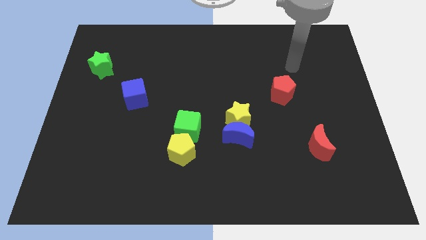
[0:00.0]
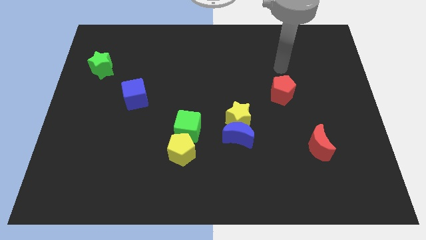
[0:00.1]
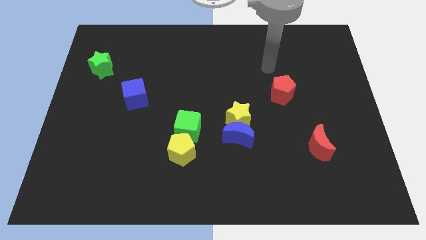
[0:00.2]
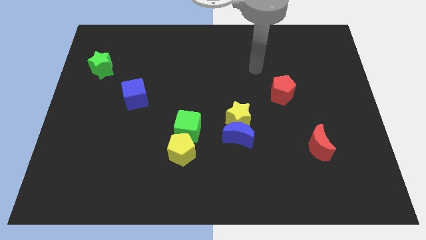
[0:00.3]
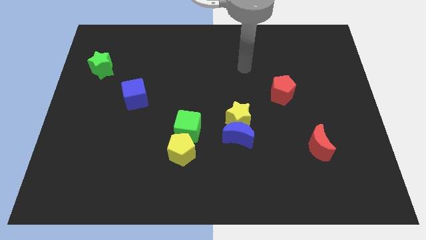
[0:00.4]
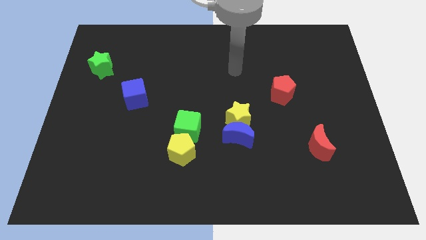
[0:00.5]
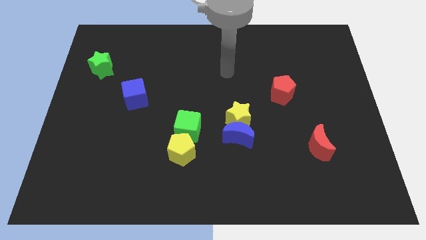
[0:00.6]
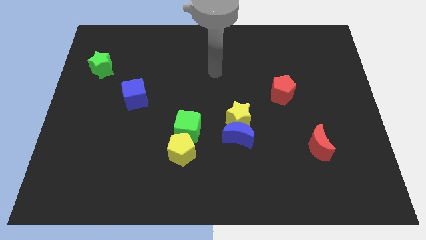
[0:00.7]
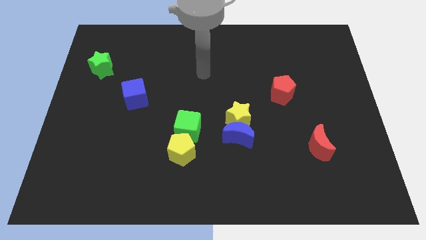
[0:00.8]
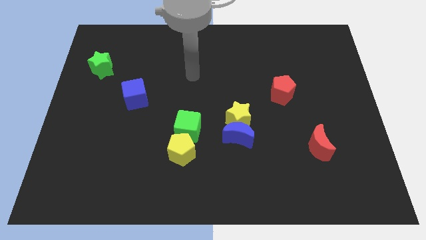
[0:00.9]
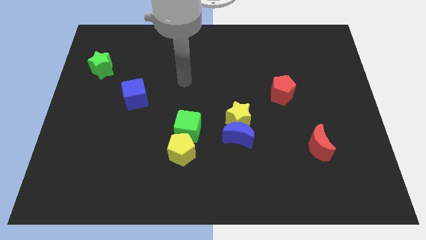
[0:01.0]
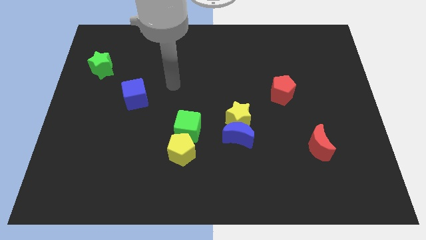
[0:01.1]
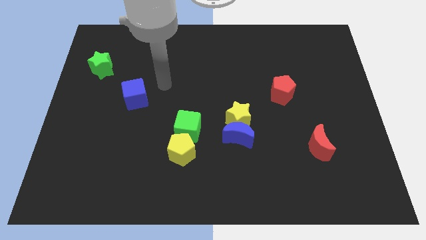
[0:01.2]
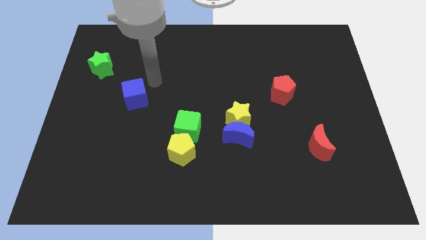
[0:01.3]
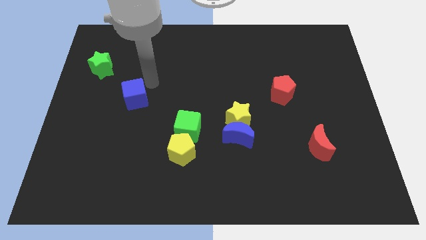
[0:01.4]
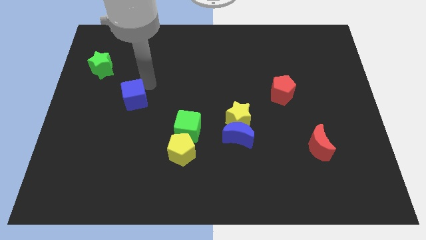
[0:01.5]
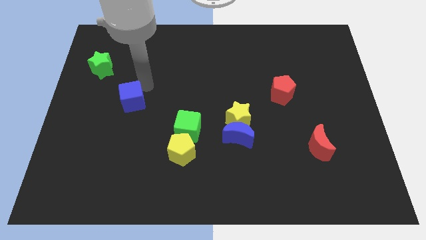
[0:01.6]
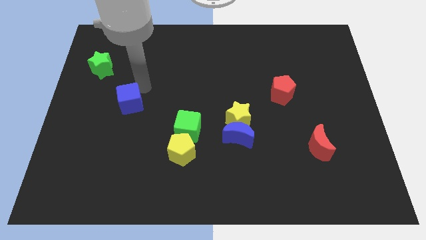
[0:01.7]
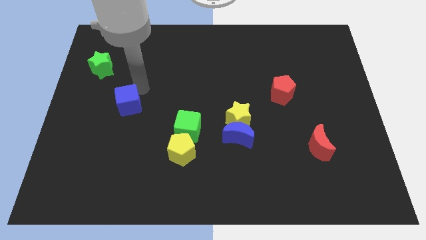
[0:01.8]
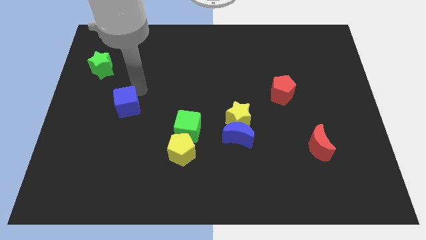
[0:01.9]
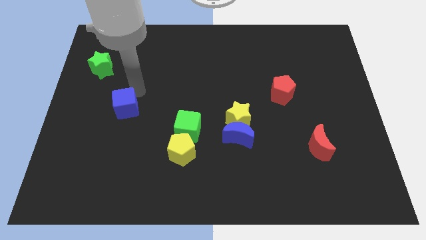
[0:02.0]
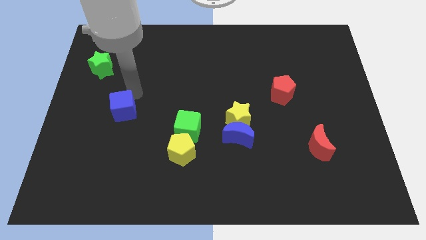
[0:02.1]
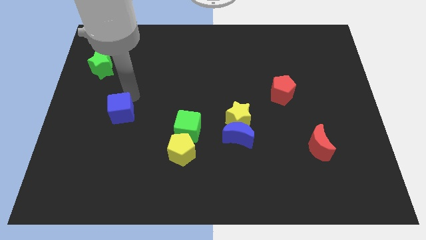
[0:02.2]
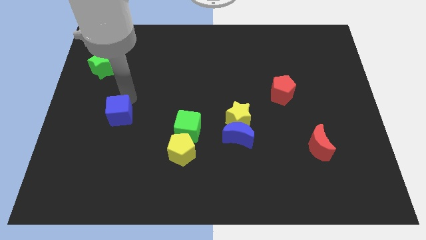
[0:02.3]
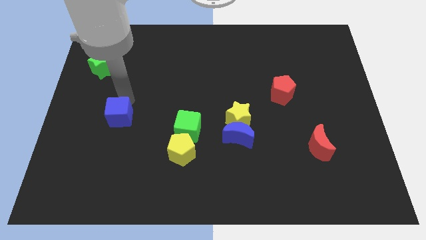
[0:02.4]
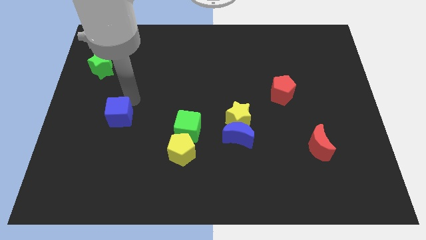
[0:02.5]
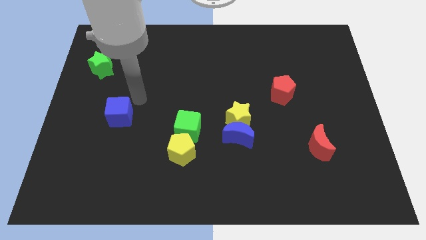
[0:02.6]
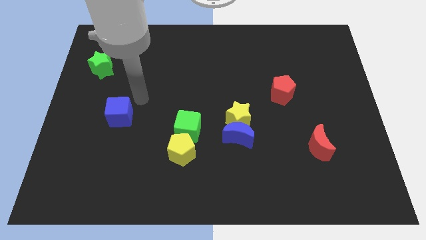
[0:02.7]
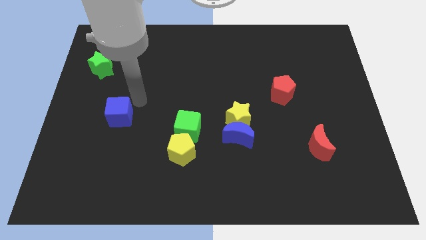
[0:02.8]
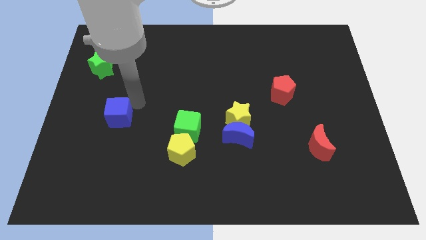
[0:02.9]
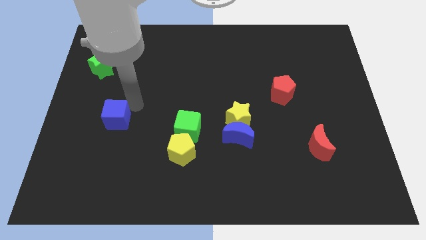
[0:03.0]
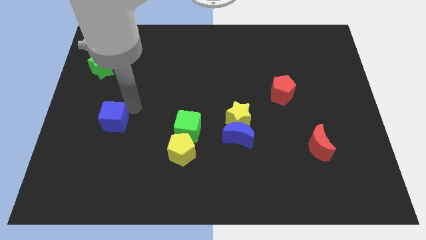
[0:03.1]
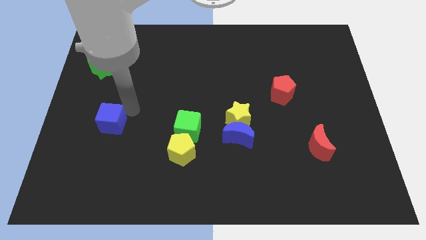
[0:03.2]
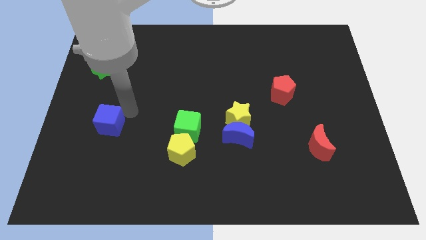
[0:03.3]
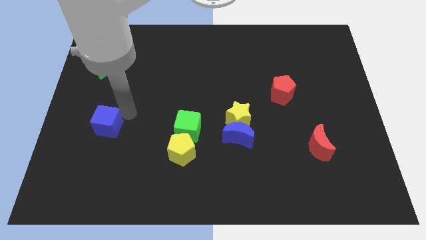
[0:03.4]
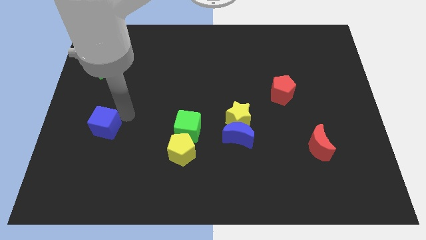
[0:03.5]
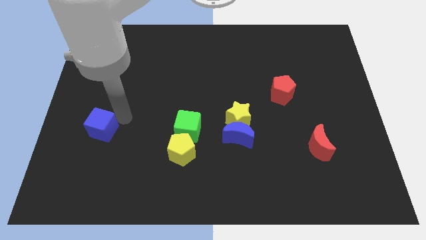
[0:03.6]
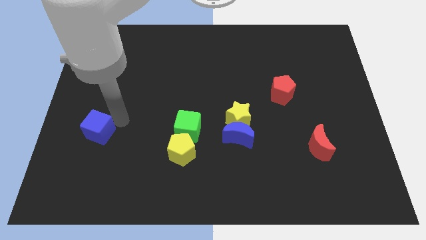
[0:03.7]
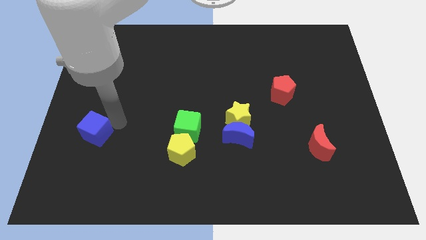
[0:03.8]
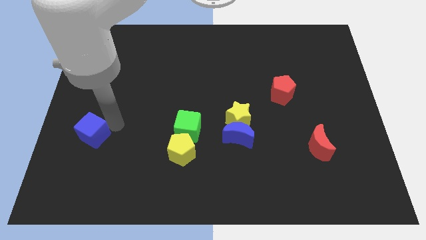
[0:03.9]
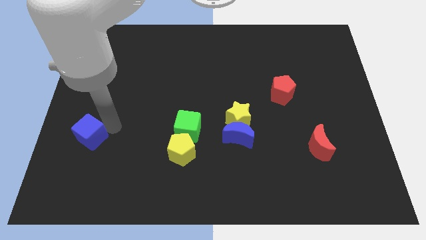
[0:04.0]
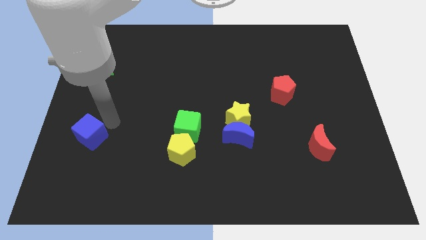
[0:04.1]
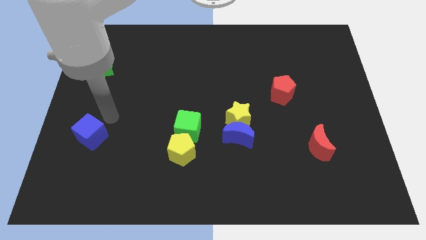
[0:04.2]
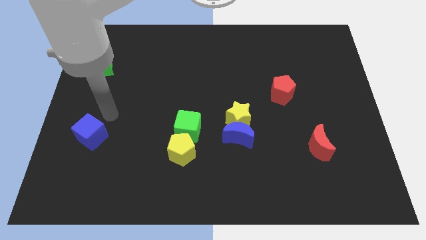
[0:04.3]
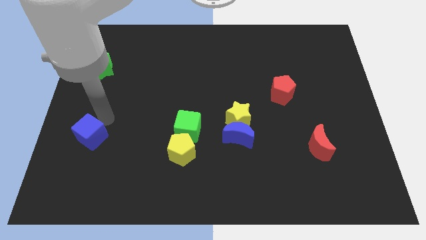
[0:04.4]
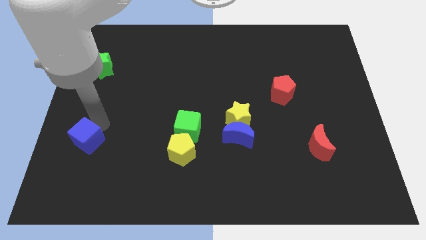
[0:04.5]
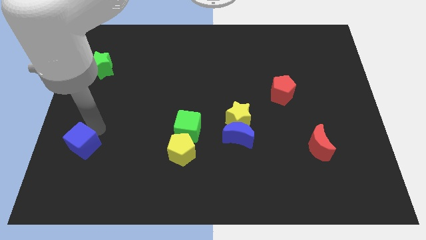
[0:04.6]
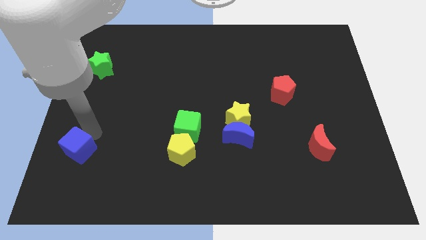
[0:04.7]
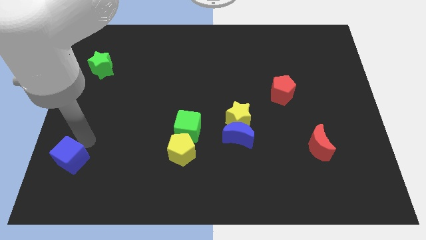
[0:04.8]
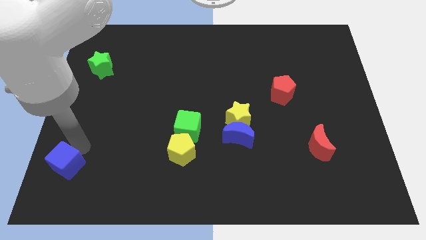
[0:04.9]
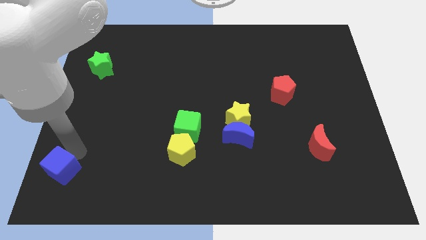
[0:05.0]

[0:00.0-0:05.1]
slide the blue cube to the lower left corner

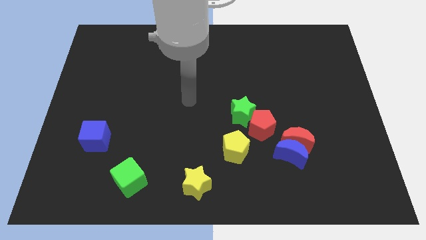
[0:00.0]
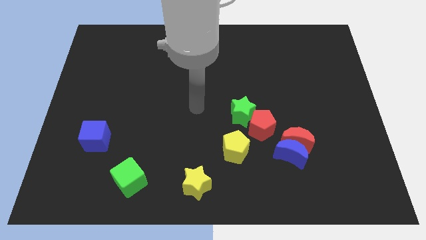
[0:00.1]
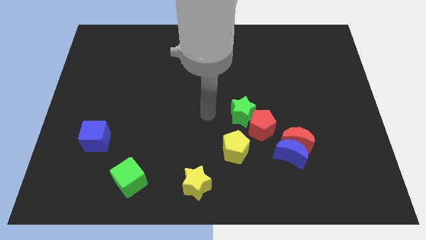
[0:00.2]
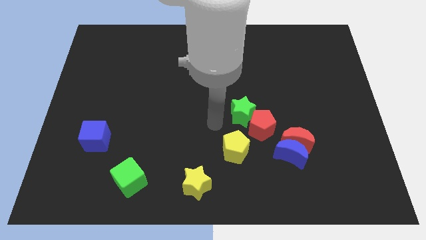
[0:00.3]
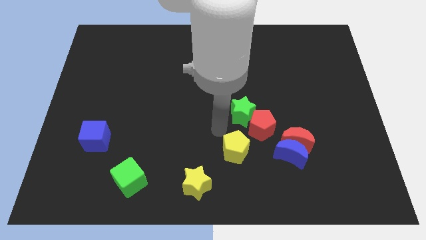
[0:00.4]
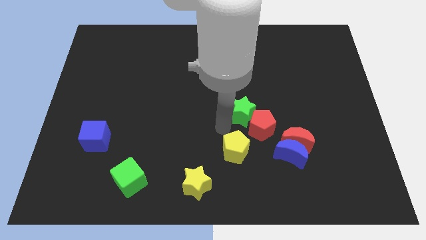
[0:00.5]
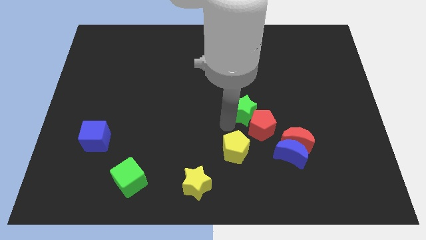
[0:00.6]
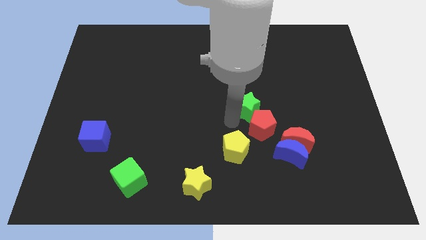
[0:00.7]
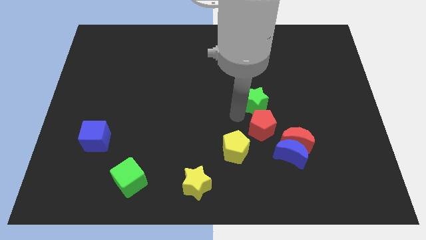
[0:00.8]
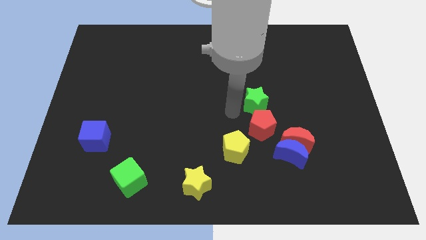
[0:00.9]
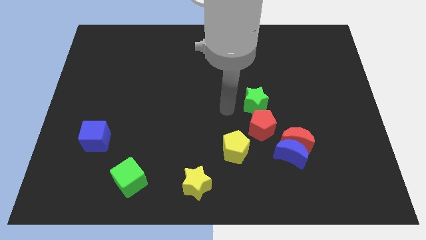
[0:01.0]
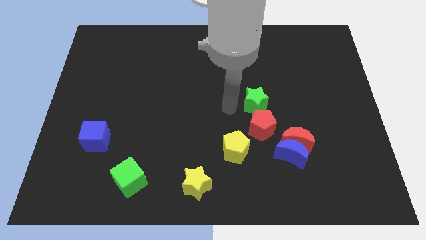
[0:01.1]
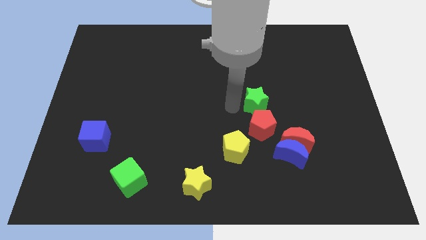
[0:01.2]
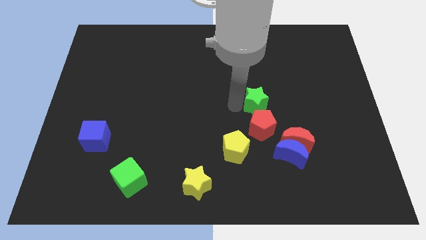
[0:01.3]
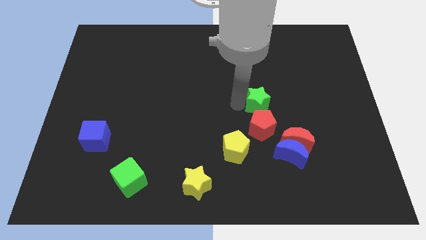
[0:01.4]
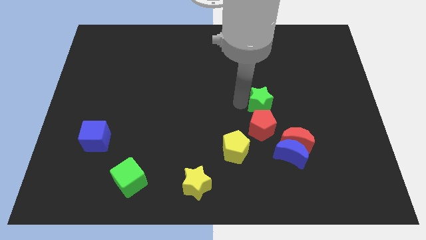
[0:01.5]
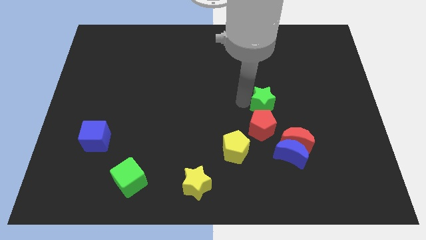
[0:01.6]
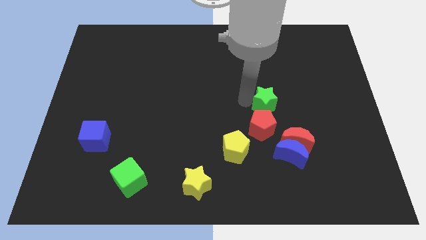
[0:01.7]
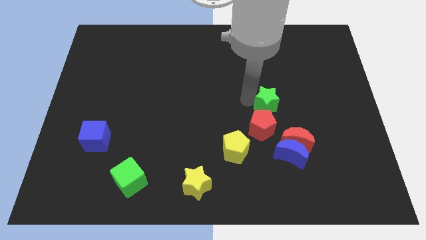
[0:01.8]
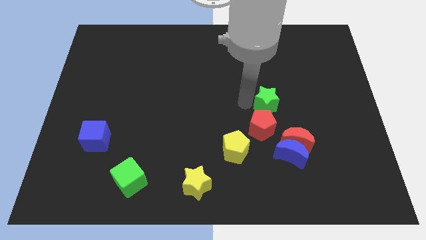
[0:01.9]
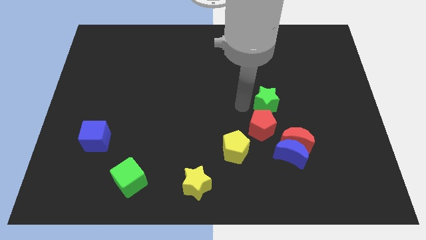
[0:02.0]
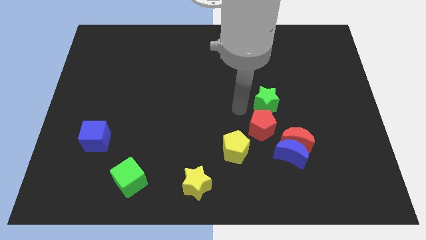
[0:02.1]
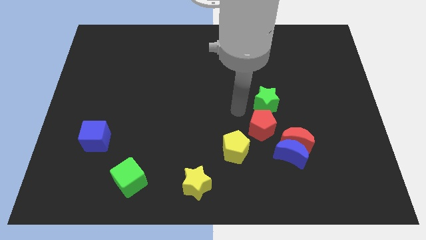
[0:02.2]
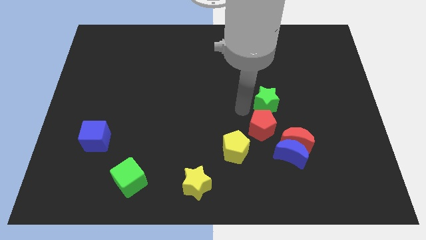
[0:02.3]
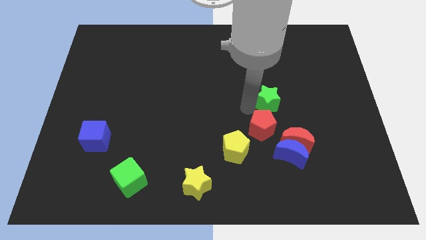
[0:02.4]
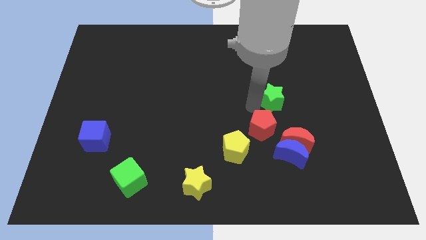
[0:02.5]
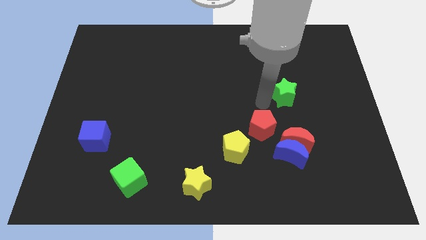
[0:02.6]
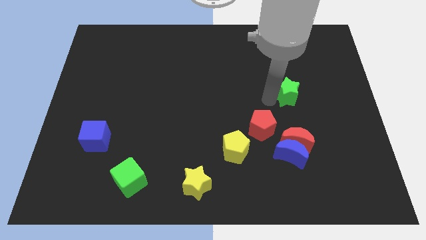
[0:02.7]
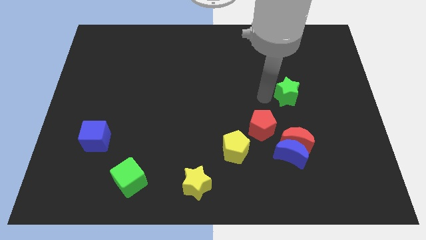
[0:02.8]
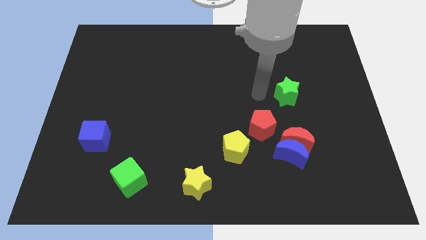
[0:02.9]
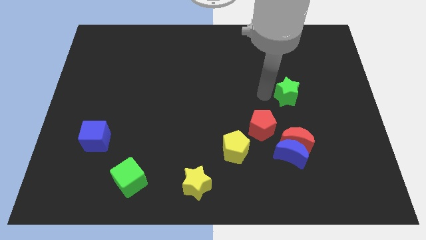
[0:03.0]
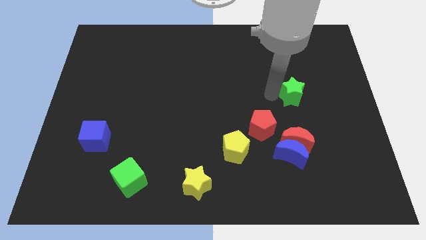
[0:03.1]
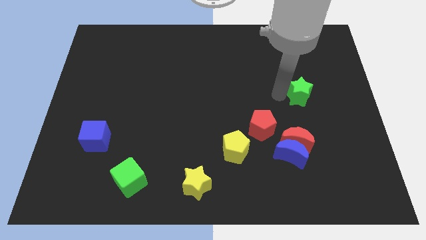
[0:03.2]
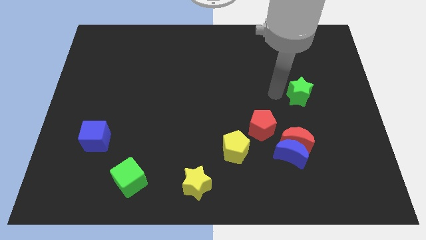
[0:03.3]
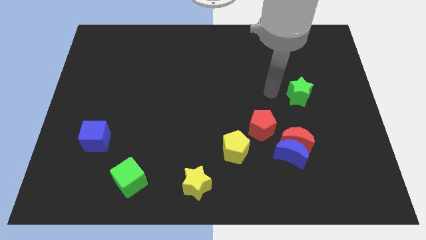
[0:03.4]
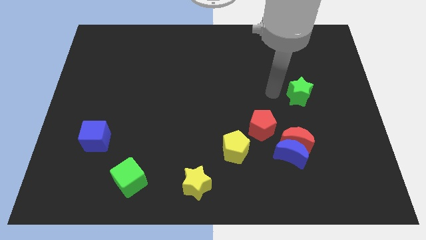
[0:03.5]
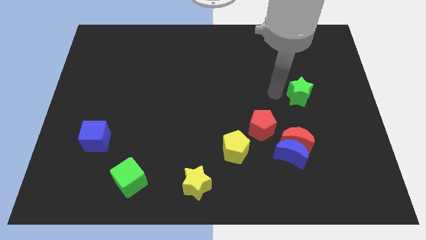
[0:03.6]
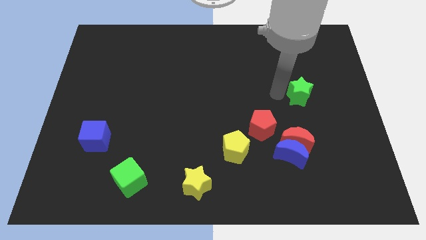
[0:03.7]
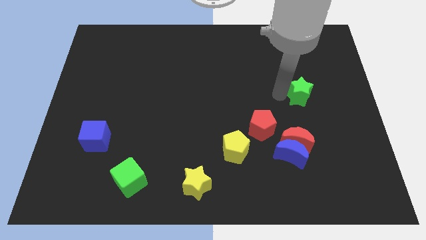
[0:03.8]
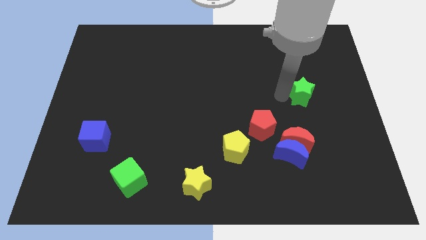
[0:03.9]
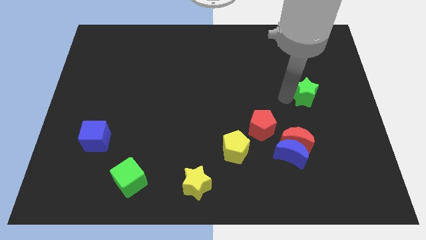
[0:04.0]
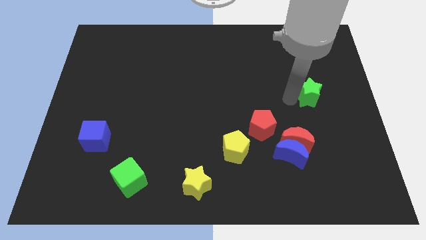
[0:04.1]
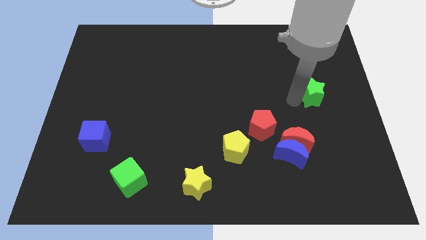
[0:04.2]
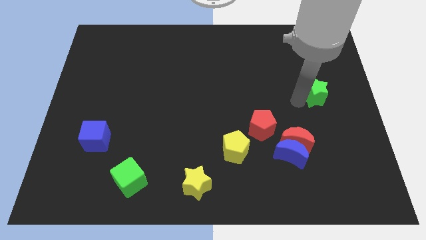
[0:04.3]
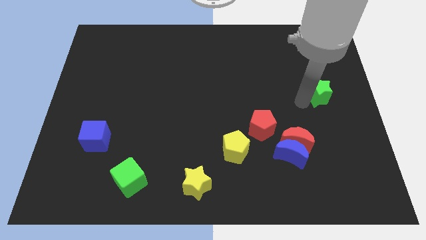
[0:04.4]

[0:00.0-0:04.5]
push the green star to the right side
